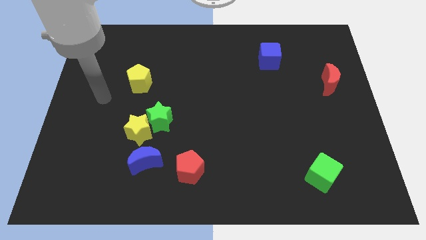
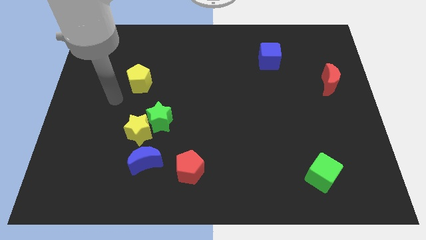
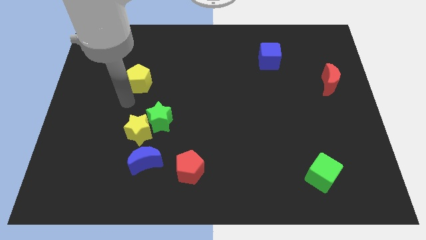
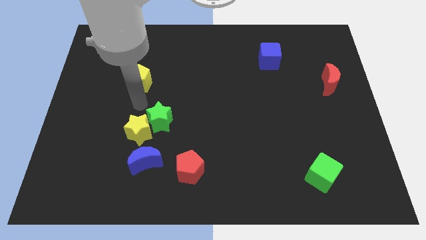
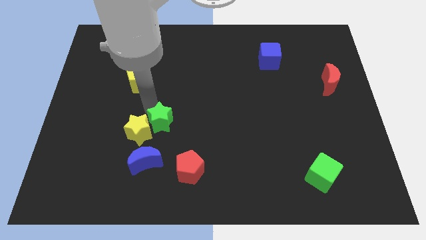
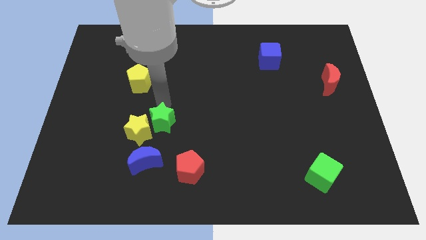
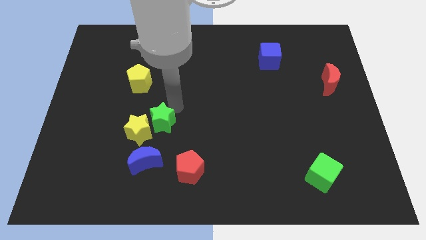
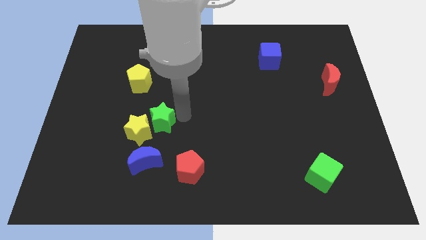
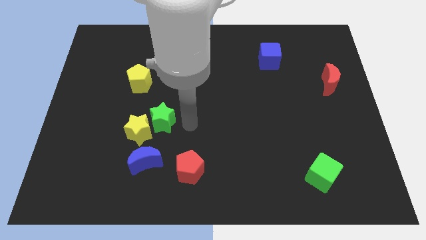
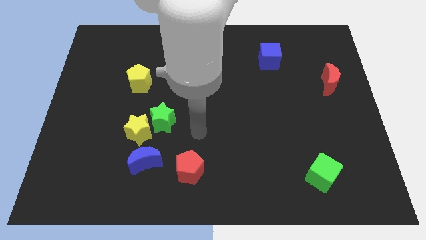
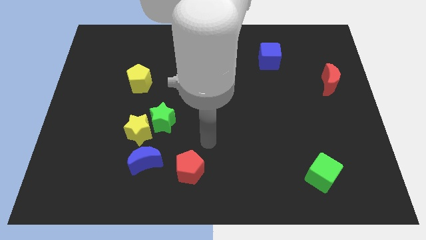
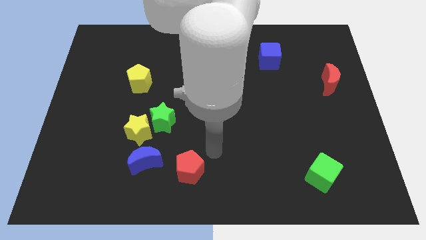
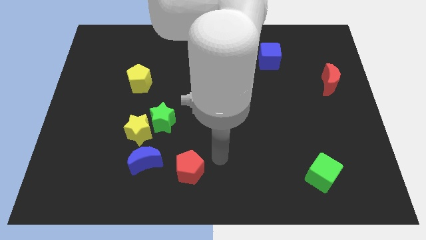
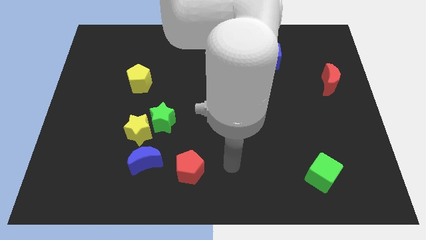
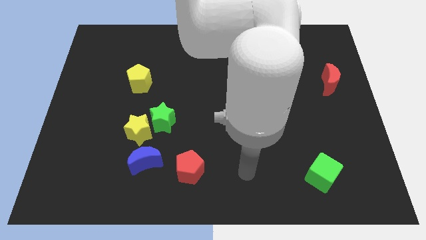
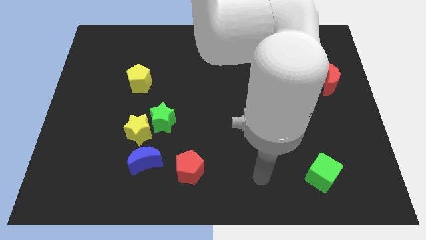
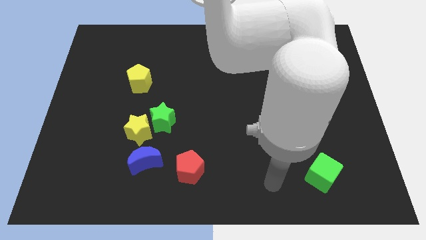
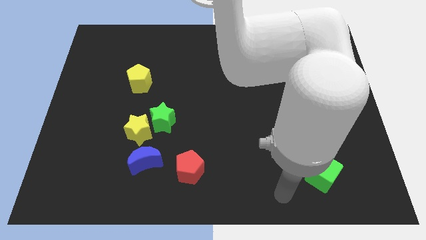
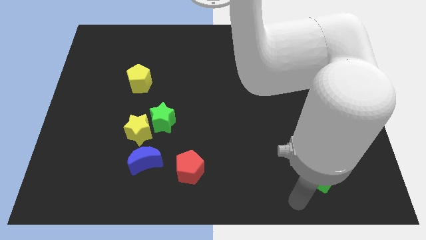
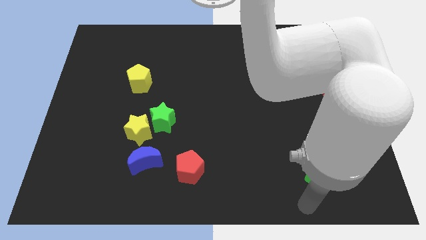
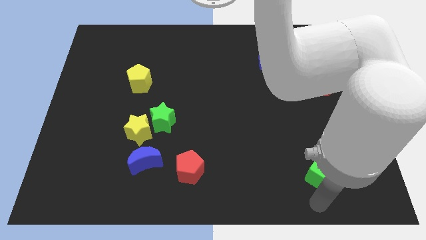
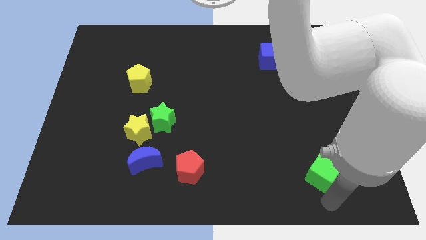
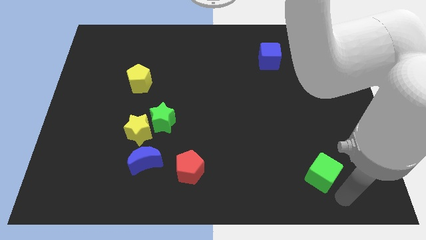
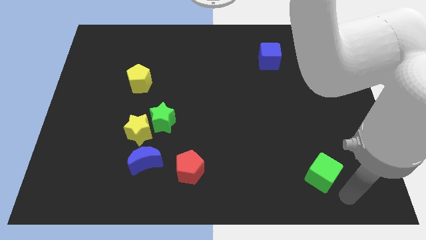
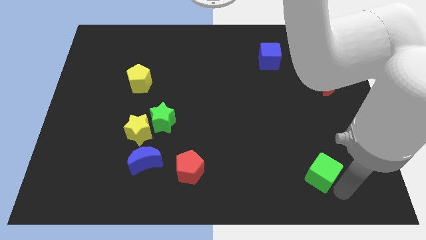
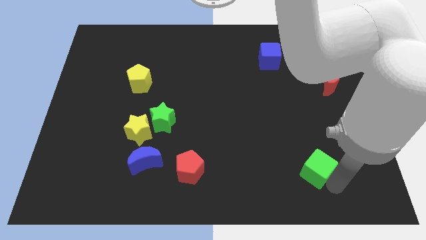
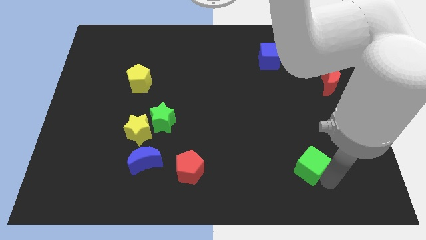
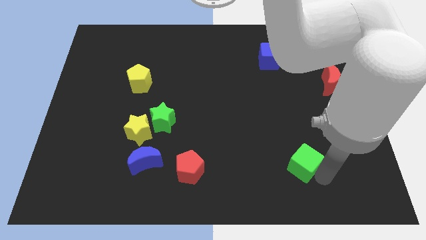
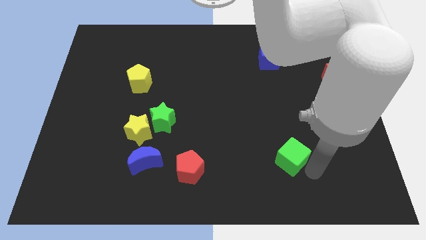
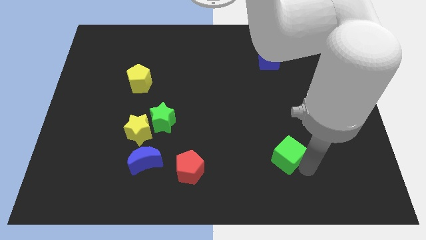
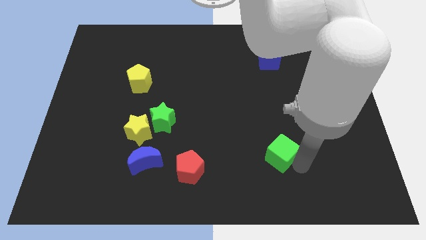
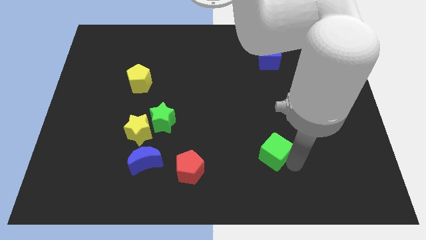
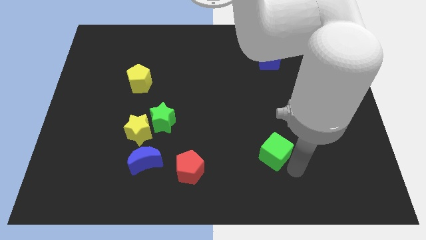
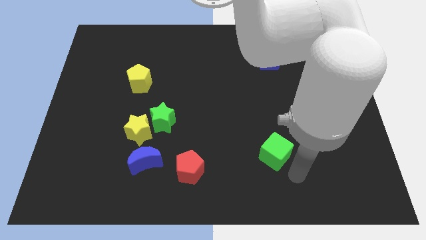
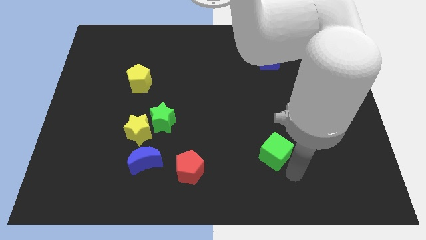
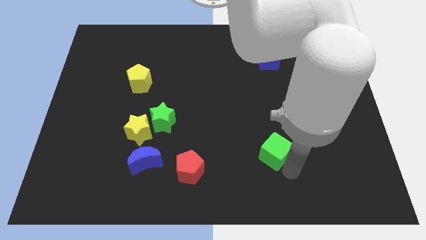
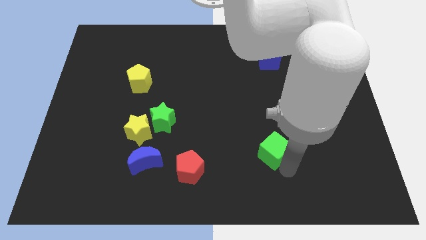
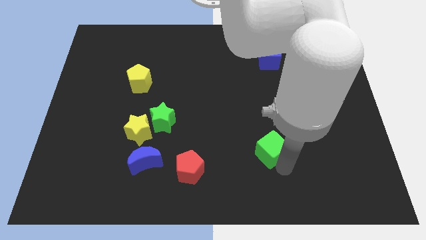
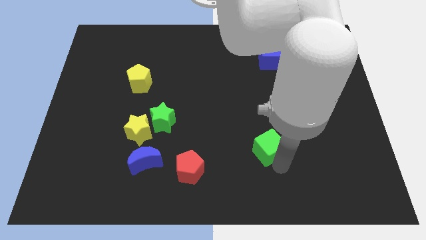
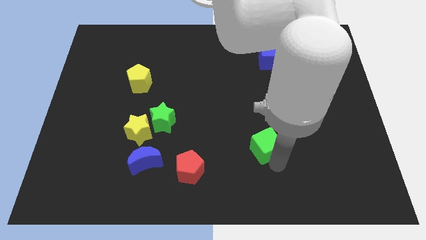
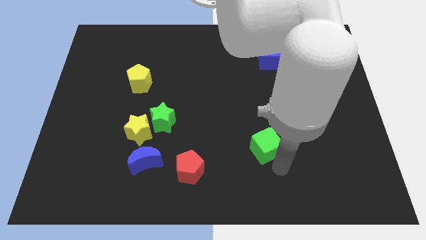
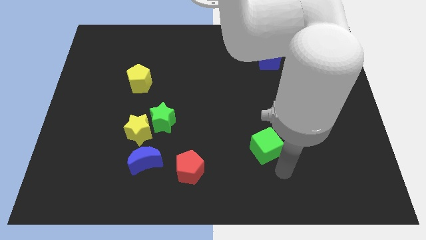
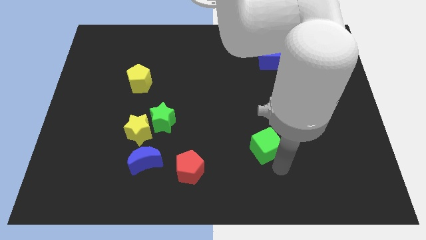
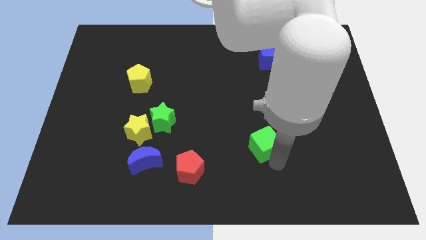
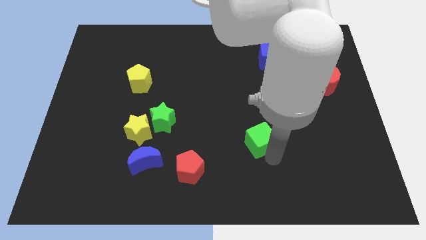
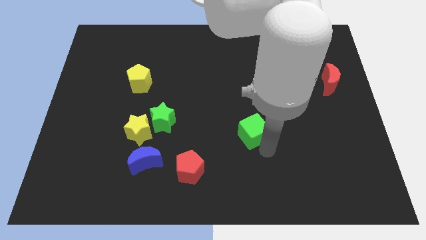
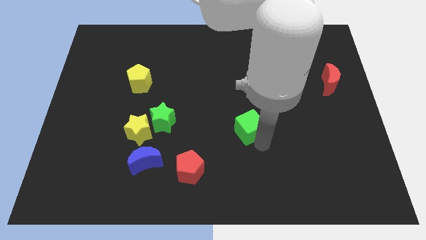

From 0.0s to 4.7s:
put the green cube to the middle

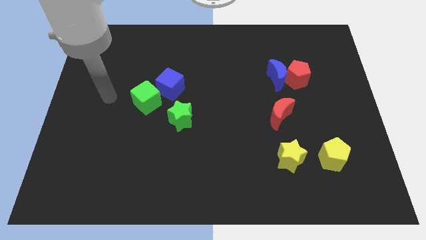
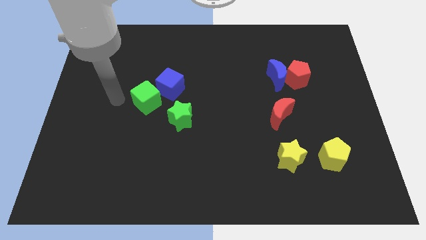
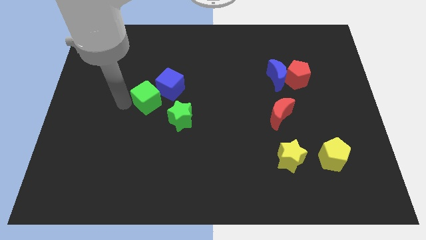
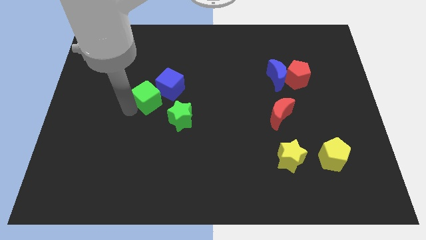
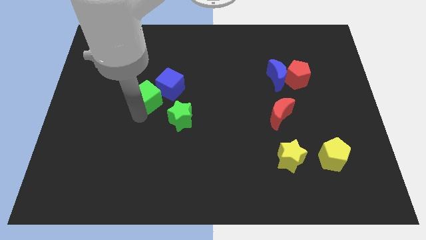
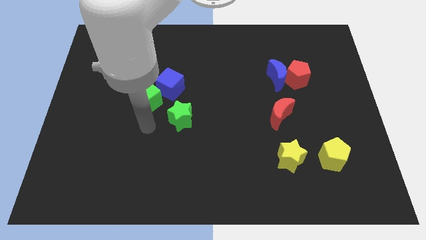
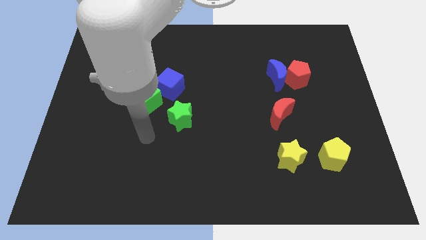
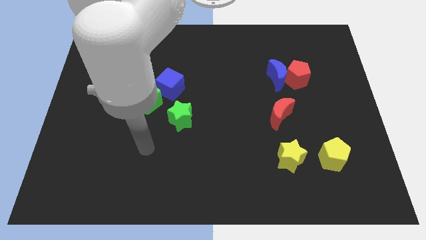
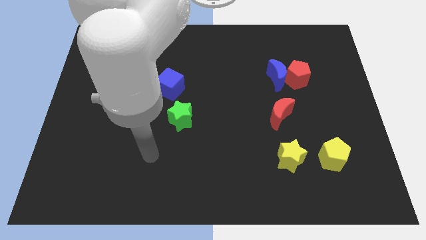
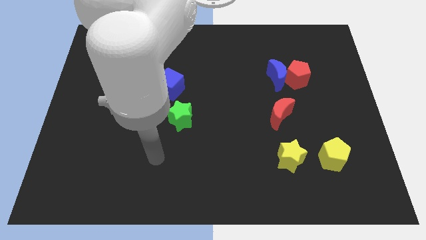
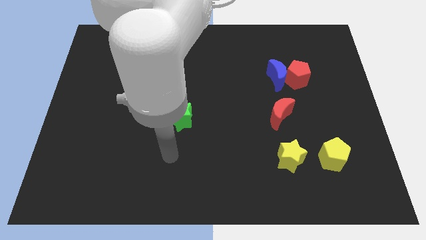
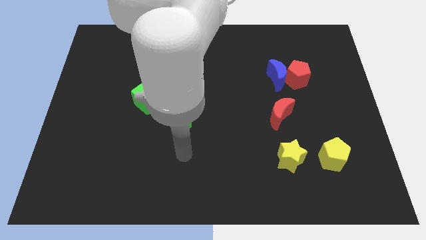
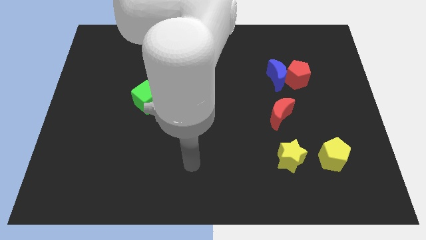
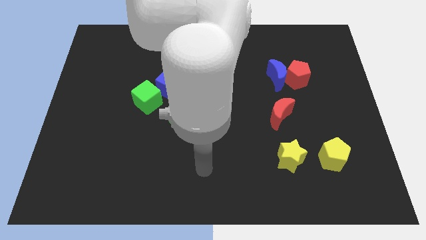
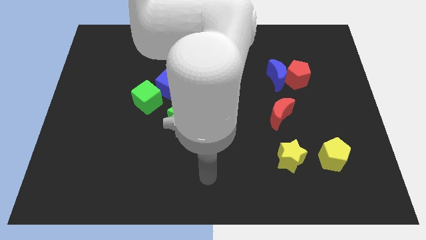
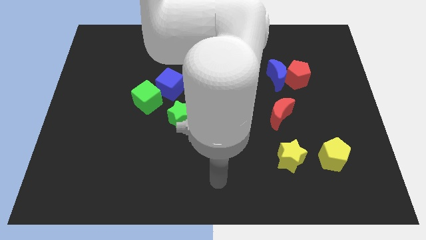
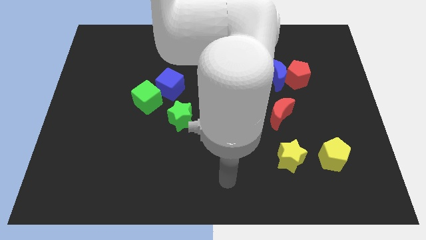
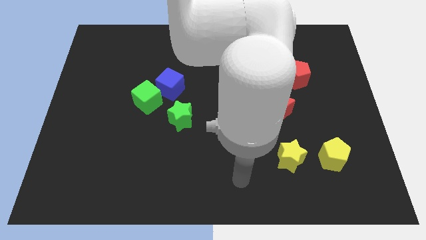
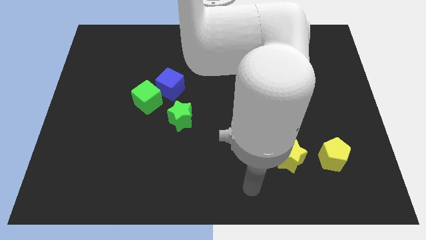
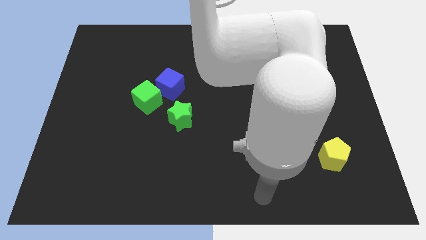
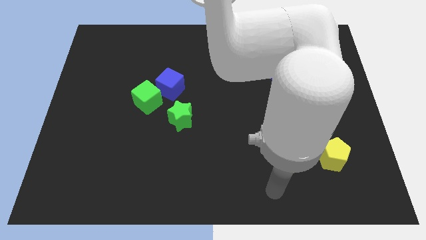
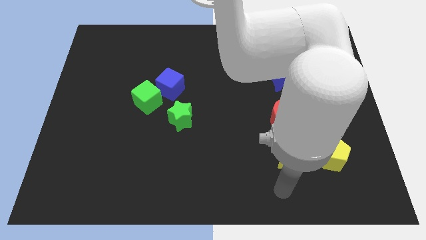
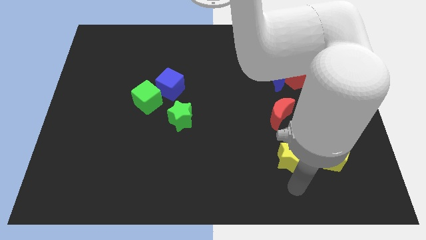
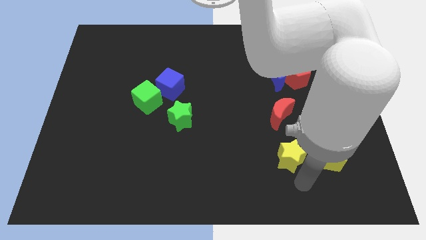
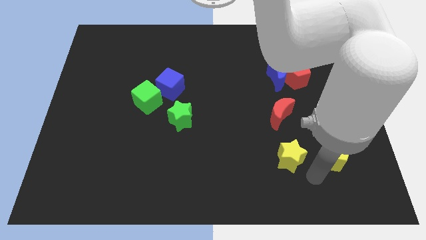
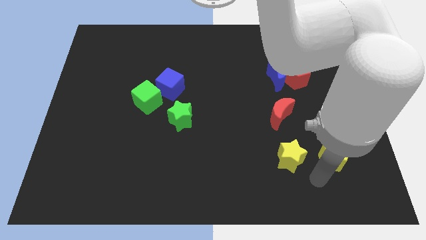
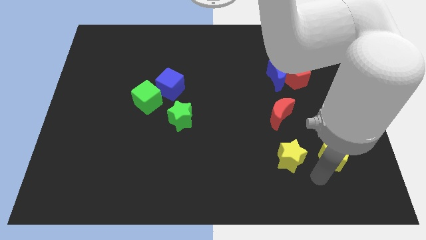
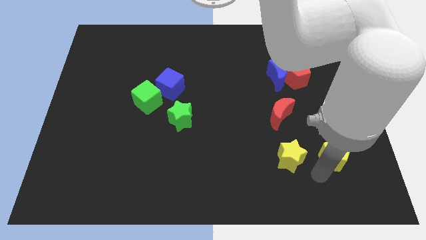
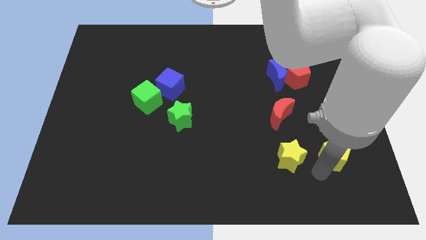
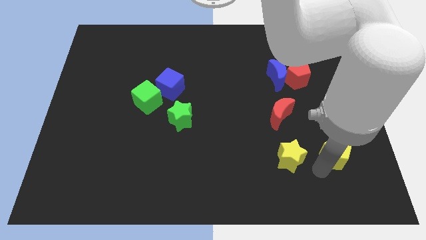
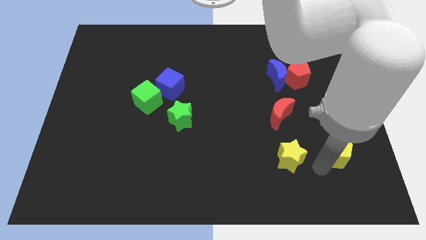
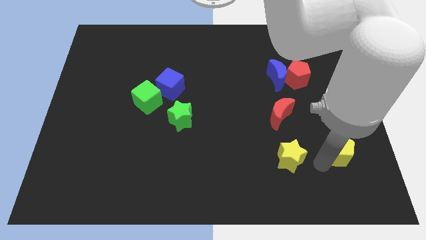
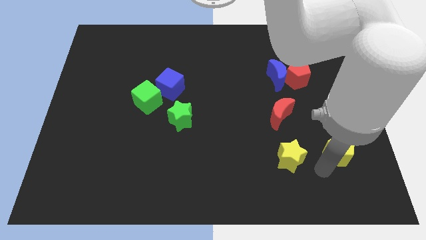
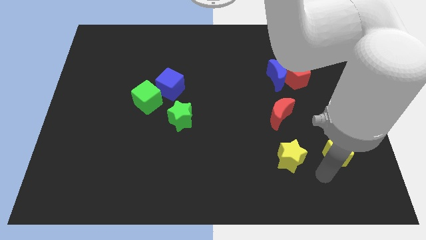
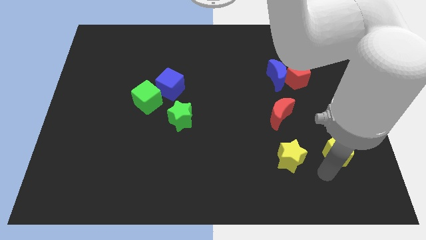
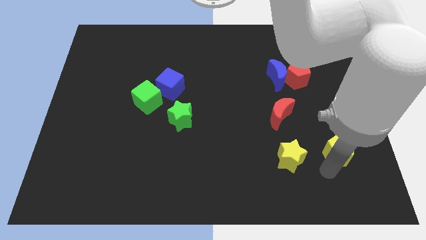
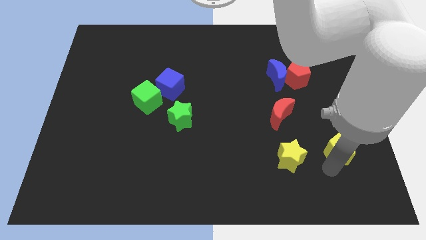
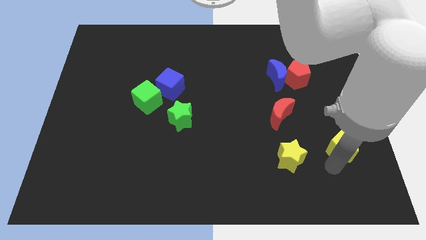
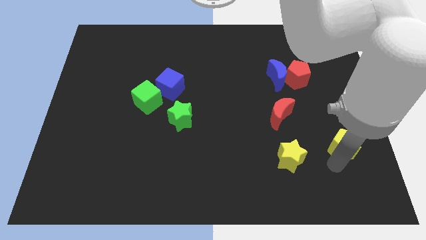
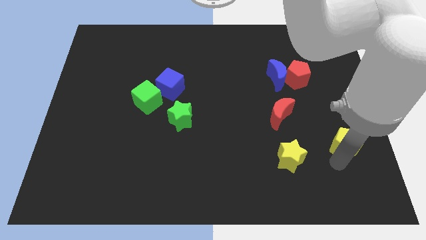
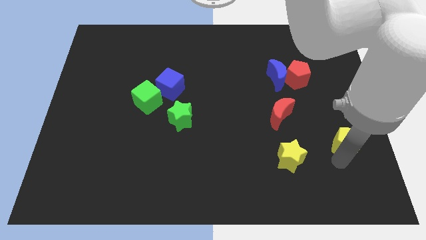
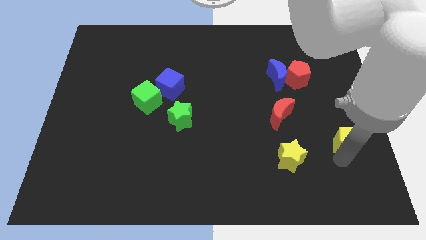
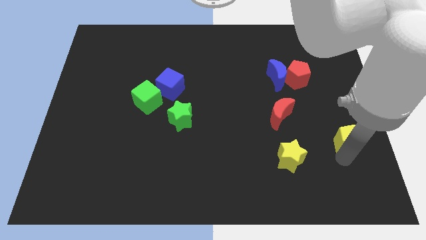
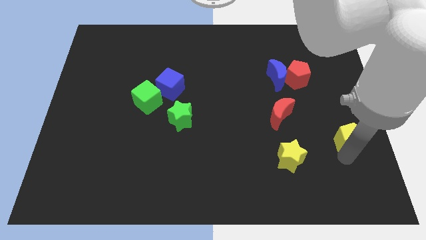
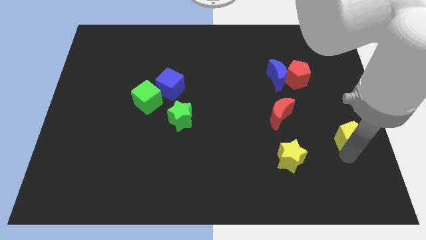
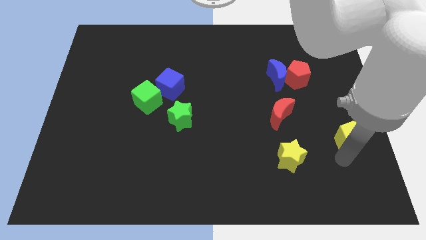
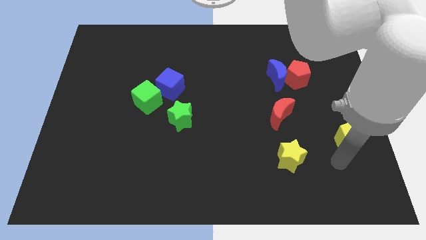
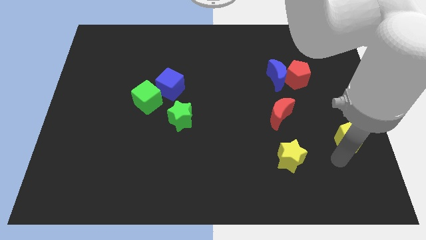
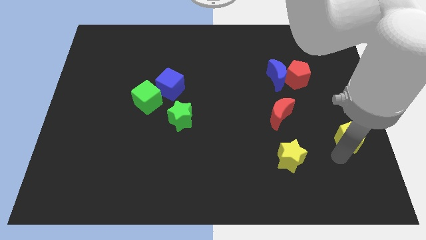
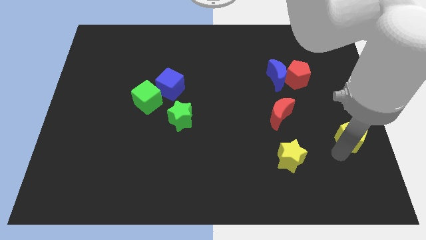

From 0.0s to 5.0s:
put the yellow pentagon to the right side
